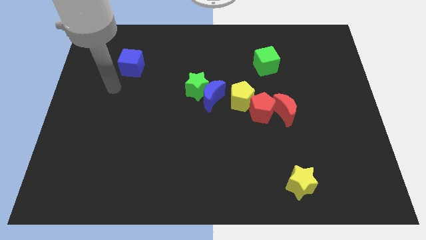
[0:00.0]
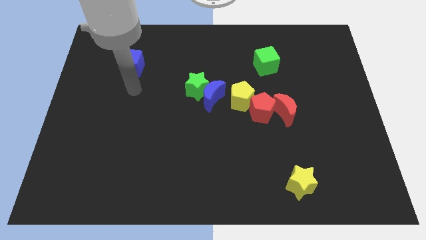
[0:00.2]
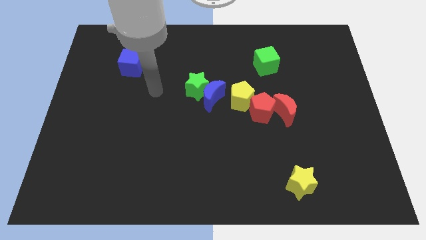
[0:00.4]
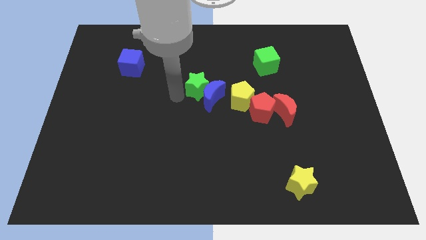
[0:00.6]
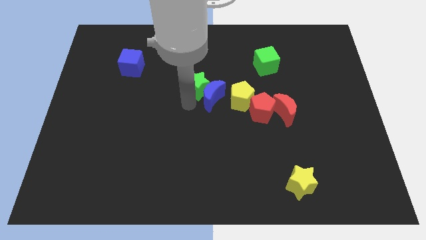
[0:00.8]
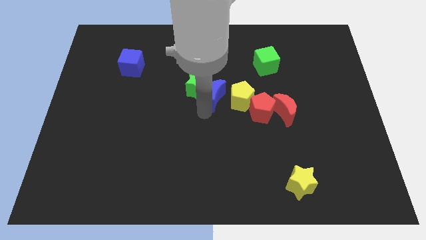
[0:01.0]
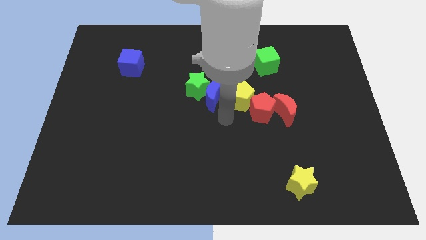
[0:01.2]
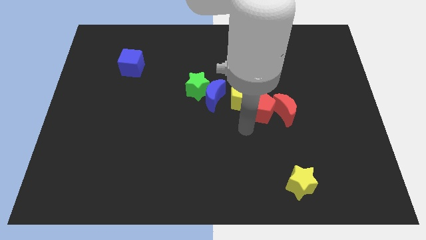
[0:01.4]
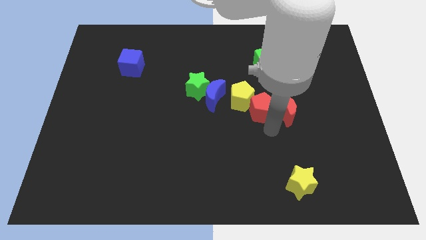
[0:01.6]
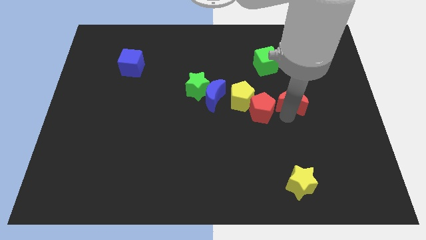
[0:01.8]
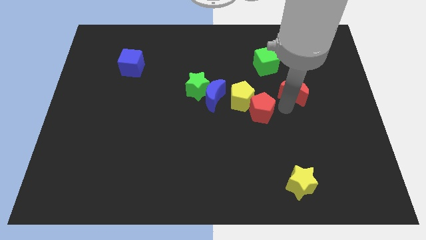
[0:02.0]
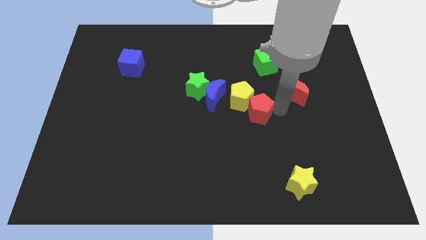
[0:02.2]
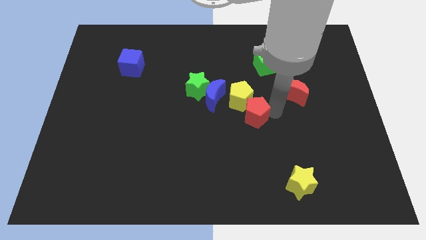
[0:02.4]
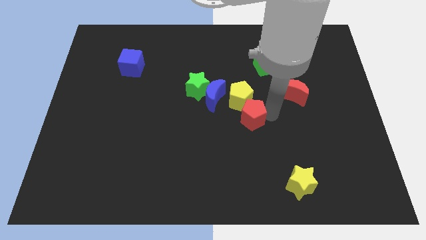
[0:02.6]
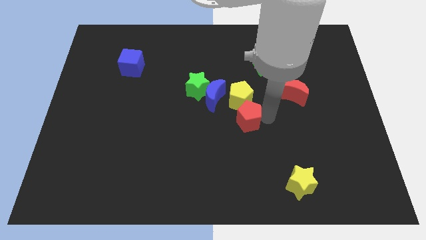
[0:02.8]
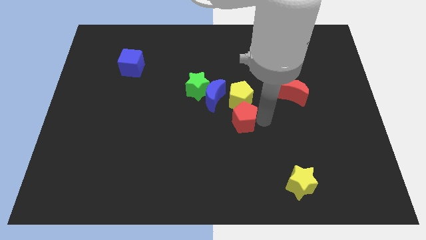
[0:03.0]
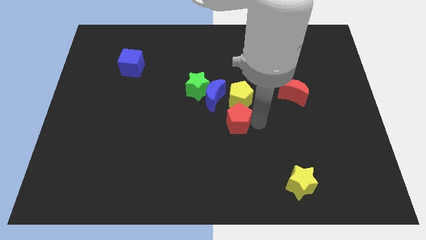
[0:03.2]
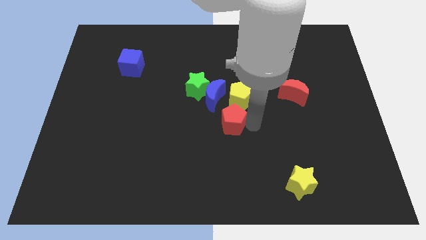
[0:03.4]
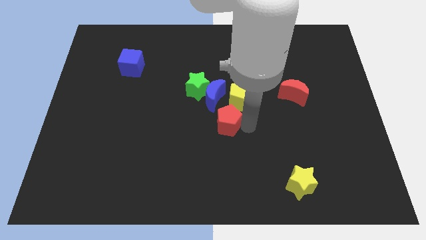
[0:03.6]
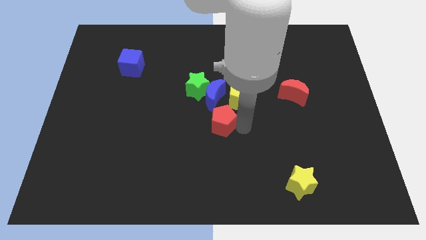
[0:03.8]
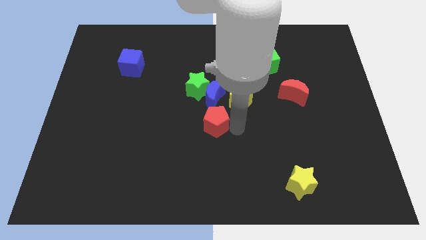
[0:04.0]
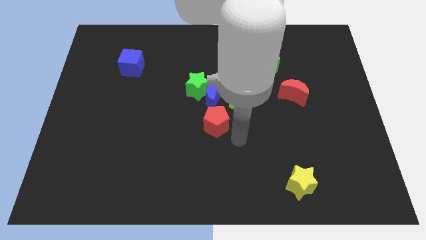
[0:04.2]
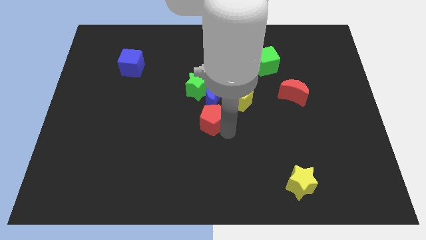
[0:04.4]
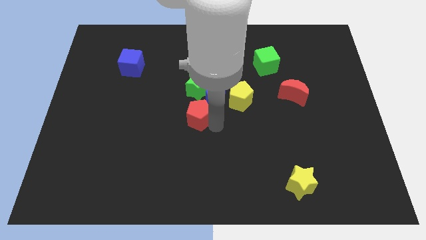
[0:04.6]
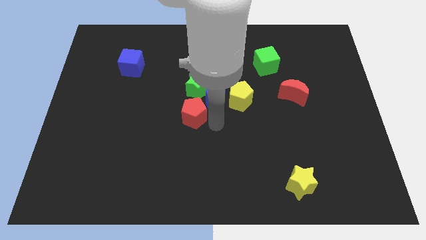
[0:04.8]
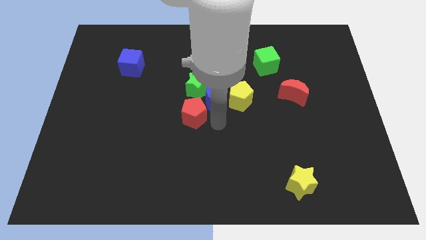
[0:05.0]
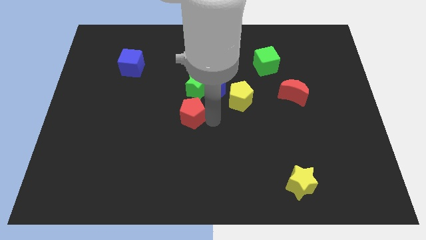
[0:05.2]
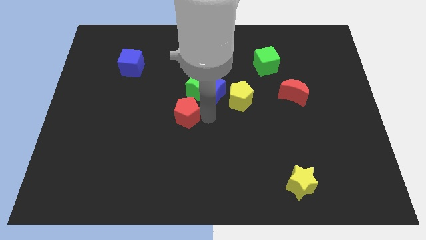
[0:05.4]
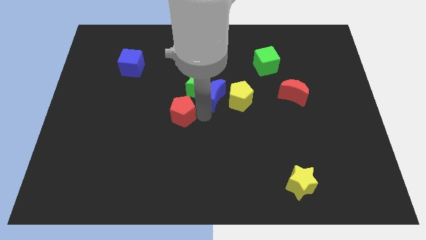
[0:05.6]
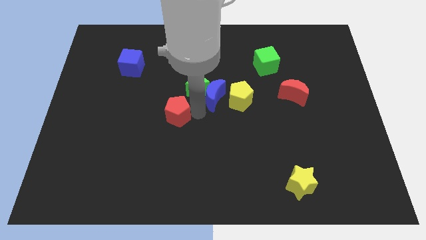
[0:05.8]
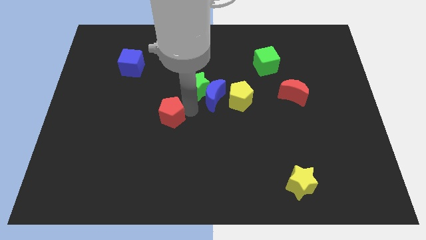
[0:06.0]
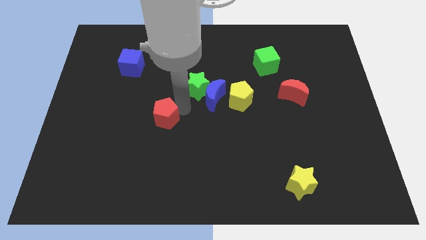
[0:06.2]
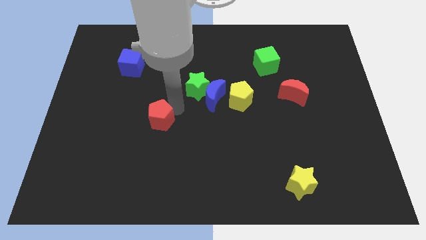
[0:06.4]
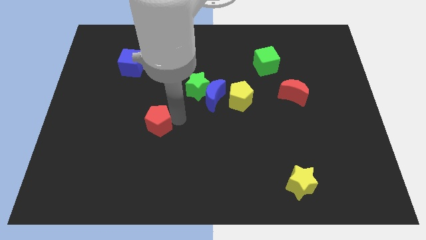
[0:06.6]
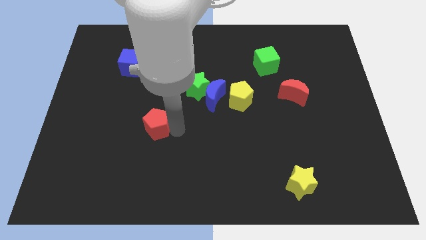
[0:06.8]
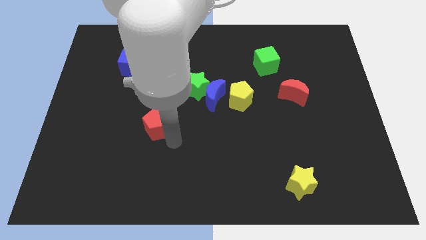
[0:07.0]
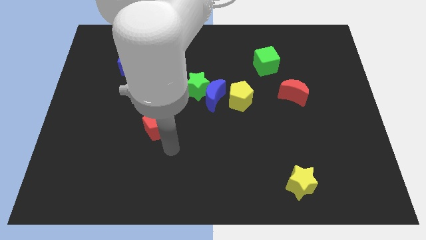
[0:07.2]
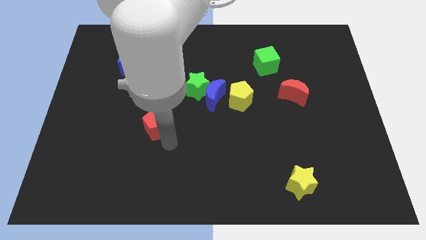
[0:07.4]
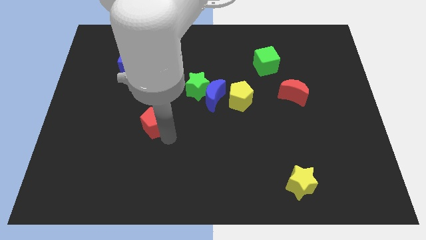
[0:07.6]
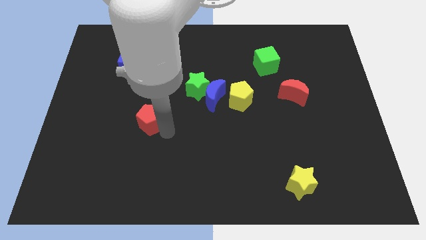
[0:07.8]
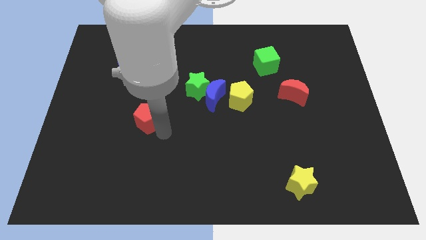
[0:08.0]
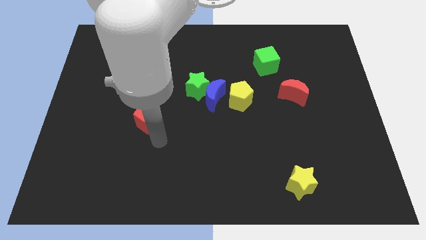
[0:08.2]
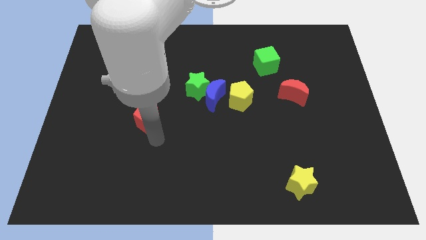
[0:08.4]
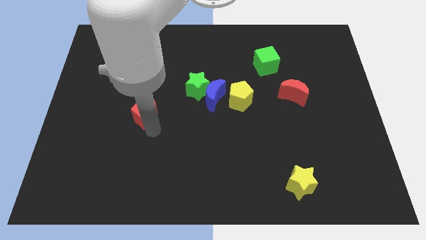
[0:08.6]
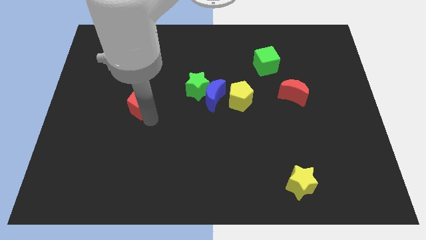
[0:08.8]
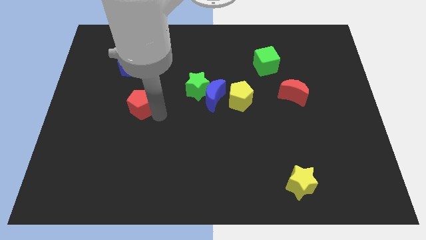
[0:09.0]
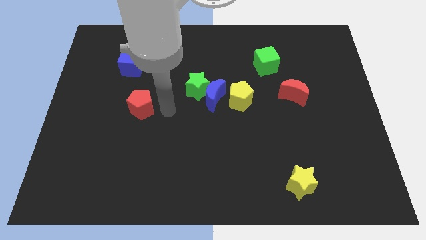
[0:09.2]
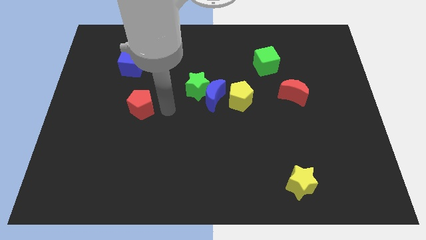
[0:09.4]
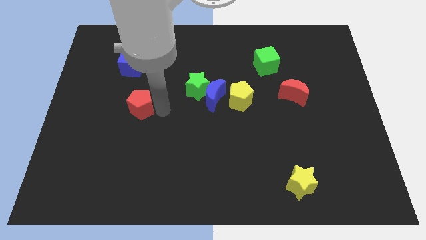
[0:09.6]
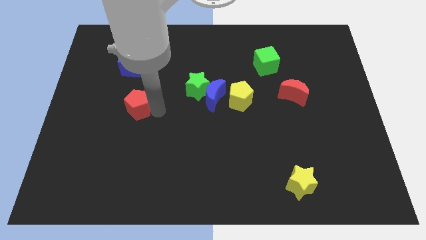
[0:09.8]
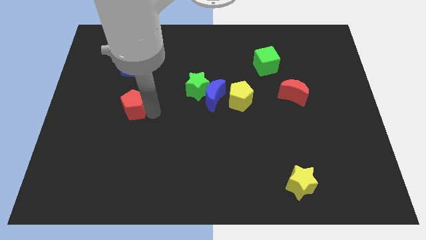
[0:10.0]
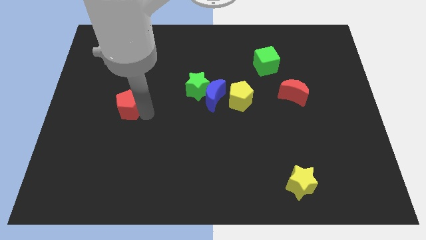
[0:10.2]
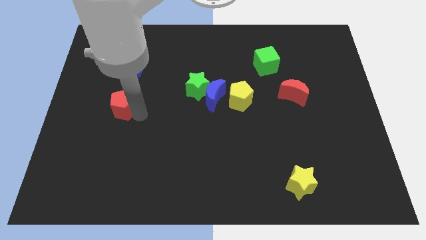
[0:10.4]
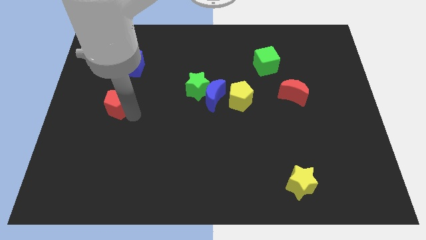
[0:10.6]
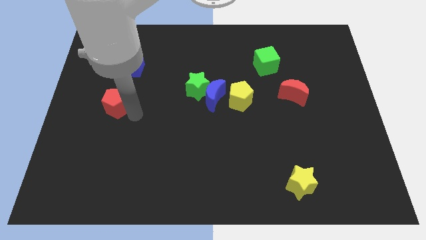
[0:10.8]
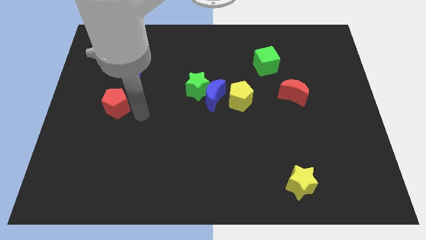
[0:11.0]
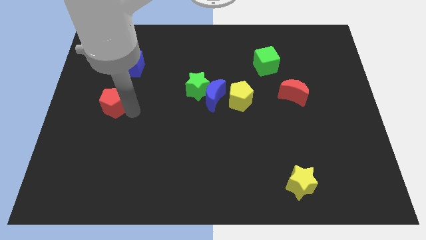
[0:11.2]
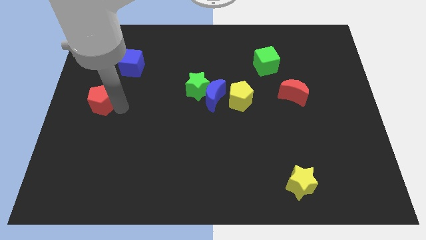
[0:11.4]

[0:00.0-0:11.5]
slide the red pentagon to the center left

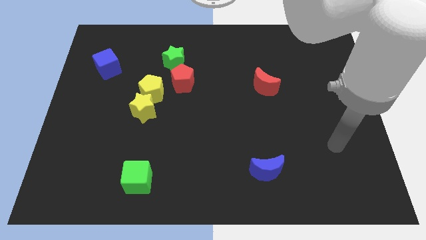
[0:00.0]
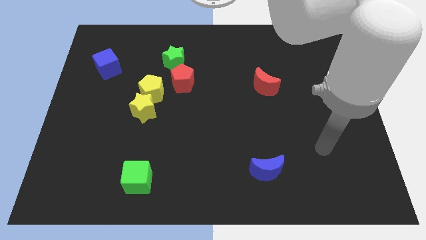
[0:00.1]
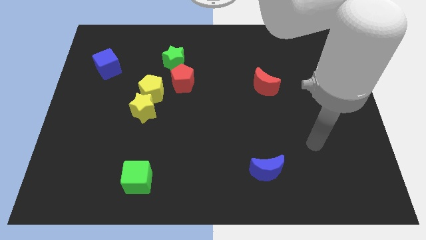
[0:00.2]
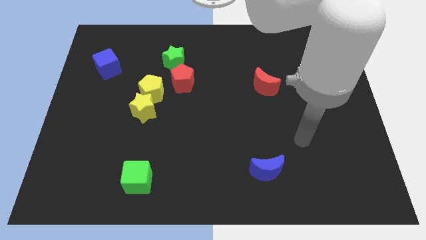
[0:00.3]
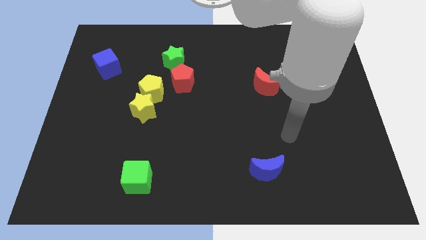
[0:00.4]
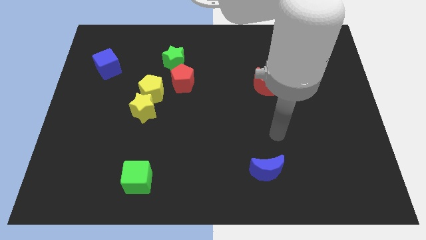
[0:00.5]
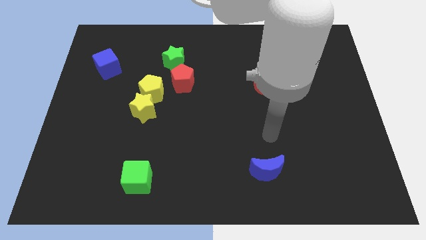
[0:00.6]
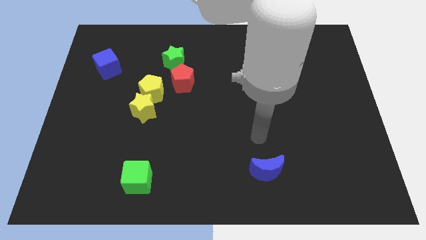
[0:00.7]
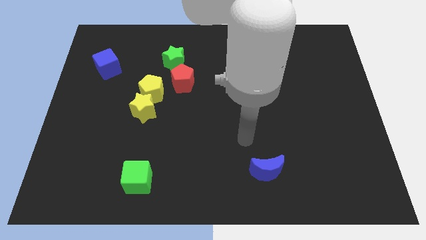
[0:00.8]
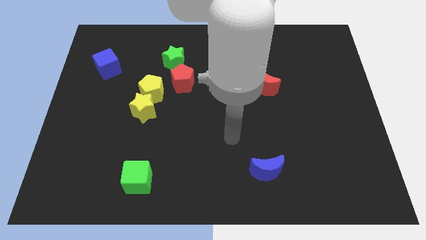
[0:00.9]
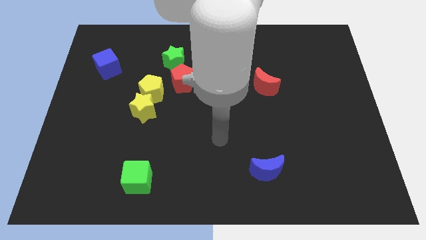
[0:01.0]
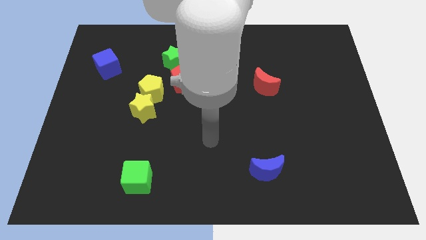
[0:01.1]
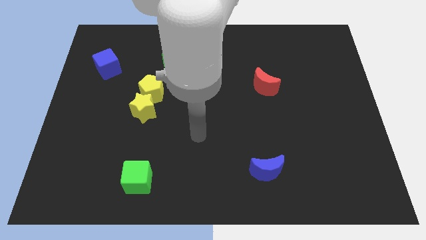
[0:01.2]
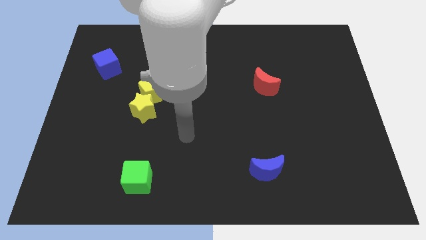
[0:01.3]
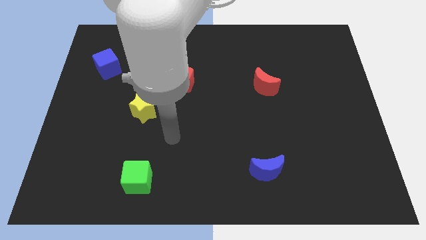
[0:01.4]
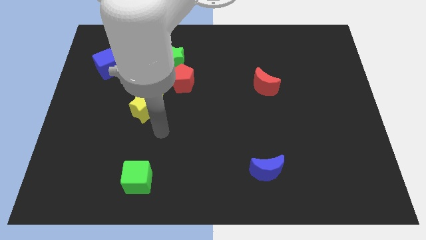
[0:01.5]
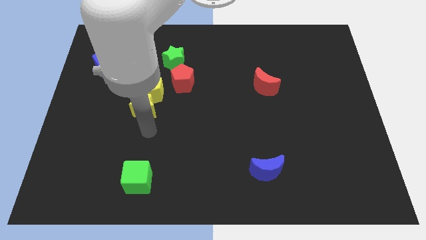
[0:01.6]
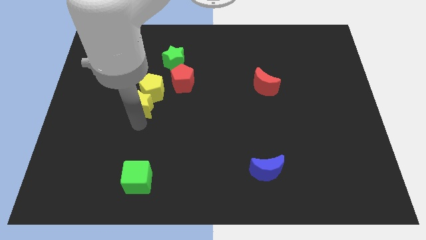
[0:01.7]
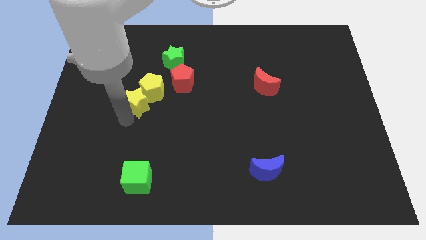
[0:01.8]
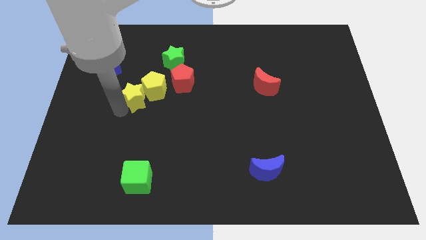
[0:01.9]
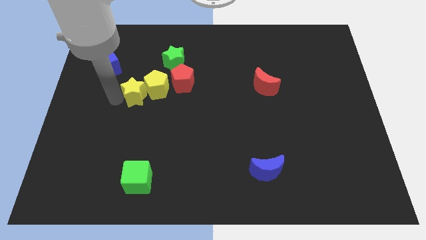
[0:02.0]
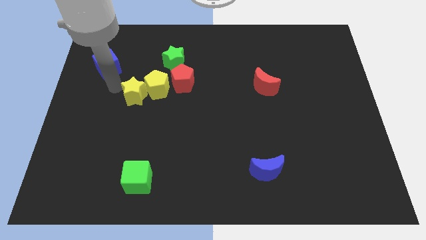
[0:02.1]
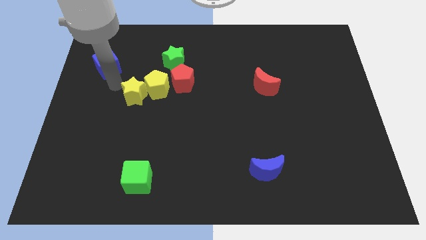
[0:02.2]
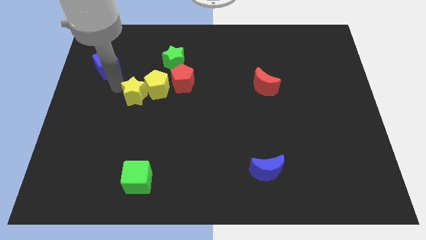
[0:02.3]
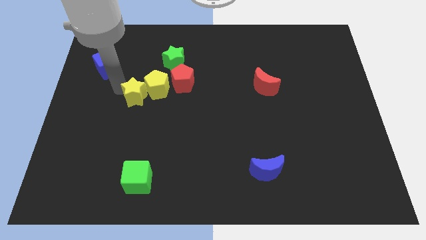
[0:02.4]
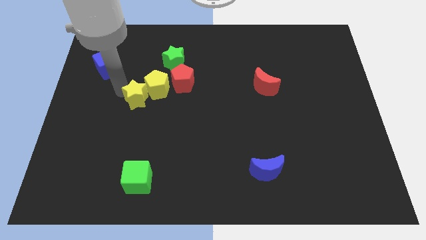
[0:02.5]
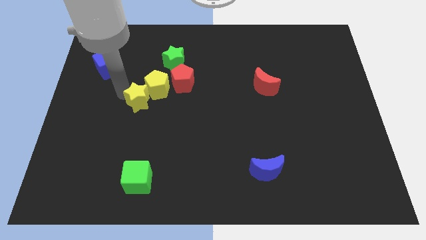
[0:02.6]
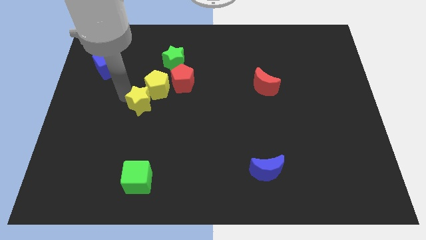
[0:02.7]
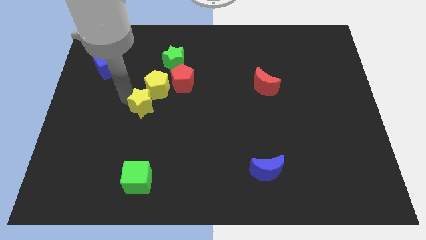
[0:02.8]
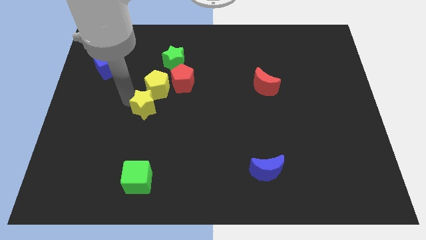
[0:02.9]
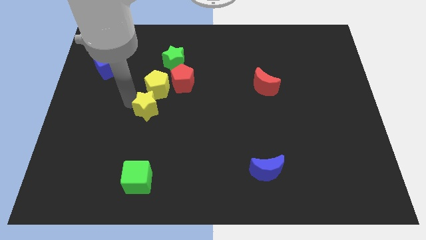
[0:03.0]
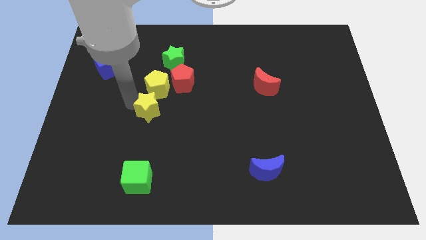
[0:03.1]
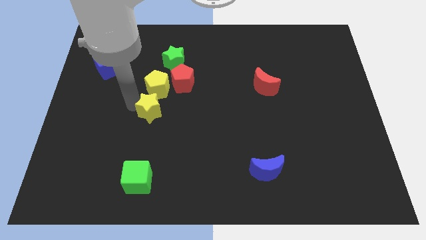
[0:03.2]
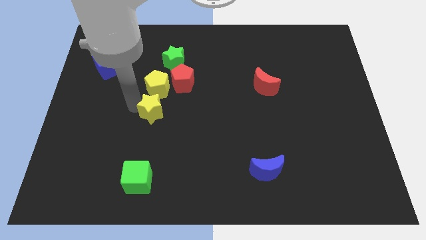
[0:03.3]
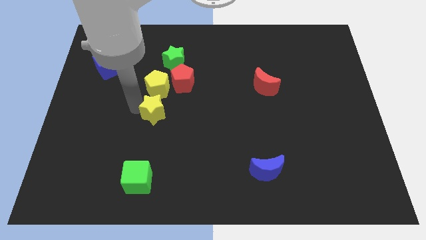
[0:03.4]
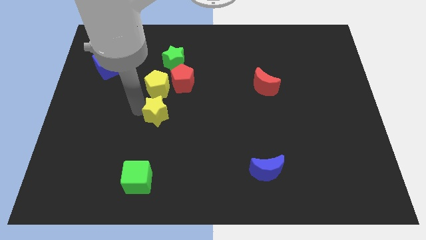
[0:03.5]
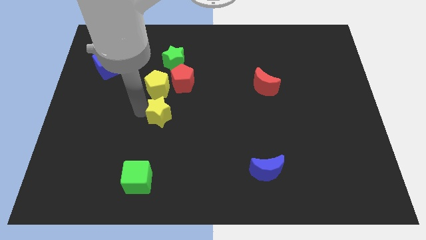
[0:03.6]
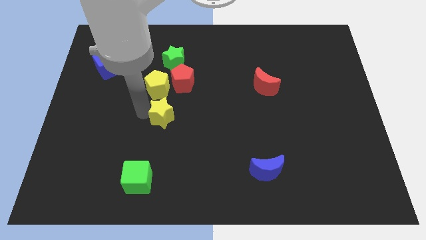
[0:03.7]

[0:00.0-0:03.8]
push the yellow star to the center
